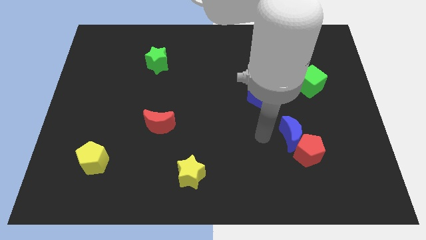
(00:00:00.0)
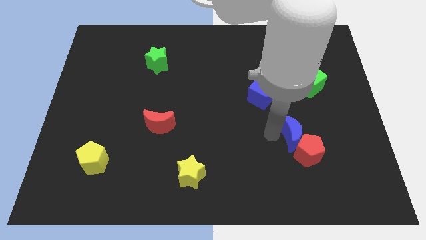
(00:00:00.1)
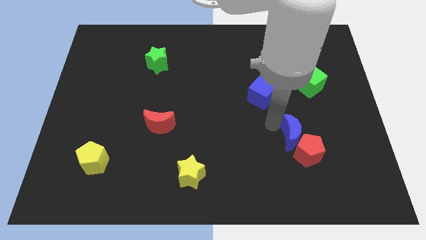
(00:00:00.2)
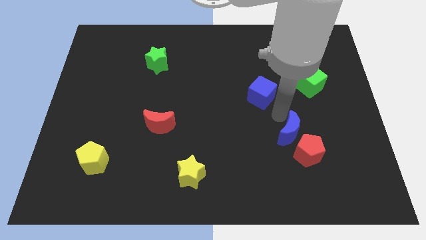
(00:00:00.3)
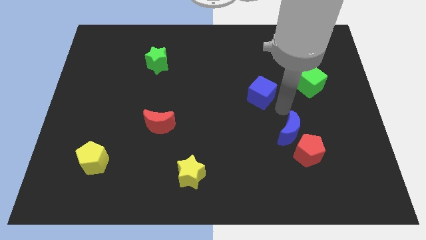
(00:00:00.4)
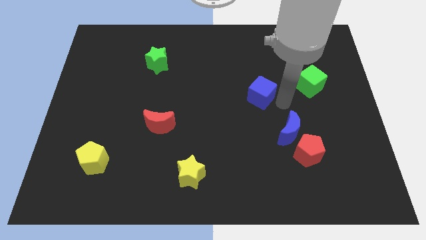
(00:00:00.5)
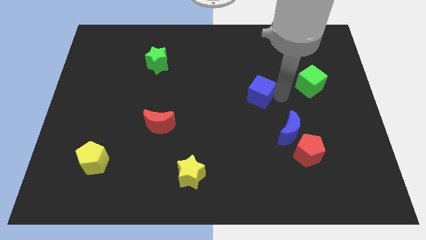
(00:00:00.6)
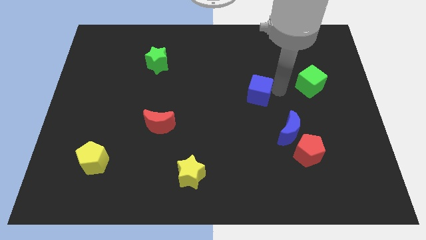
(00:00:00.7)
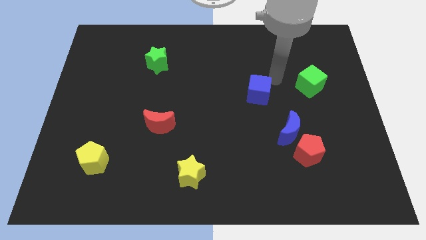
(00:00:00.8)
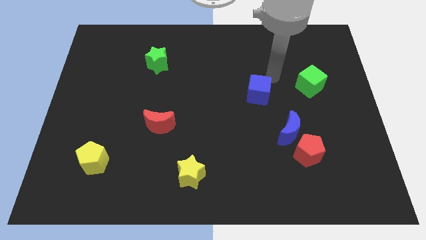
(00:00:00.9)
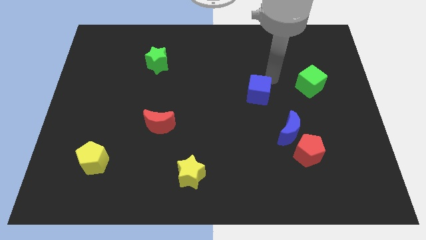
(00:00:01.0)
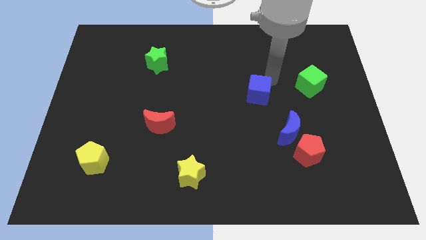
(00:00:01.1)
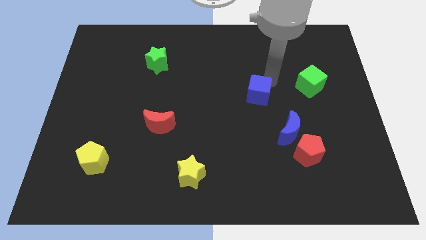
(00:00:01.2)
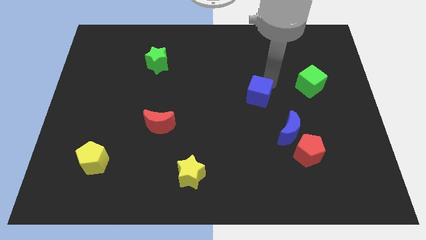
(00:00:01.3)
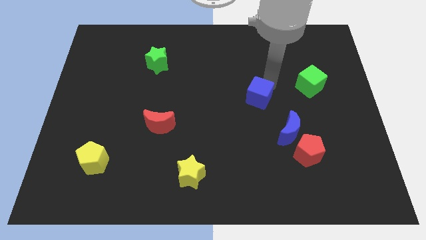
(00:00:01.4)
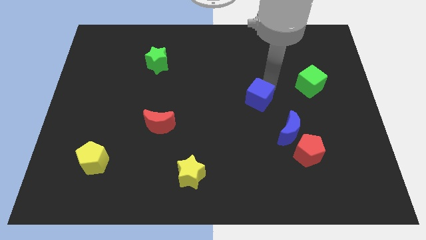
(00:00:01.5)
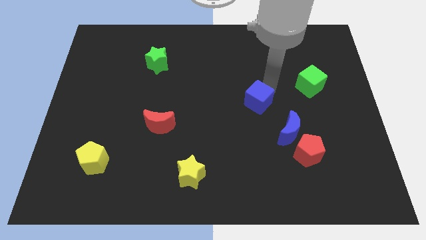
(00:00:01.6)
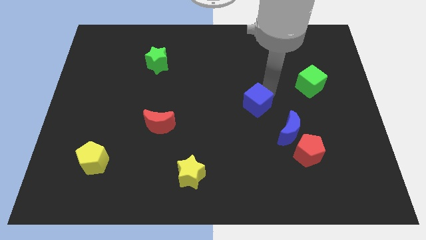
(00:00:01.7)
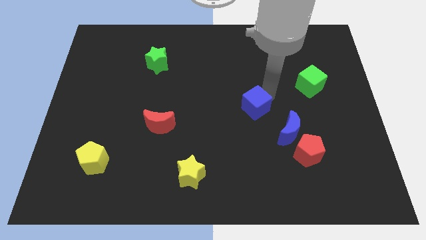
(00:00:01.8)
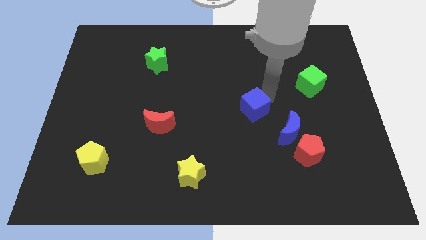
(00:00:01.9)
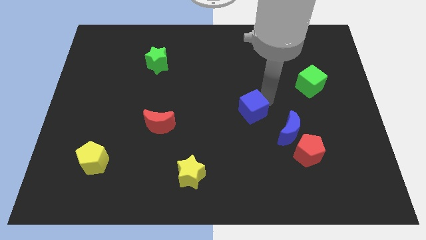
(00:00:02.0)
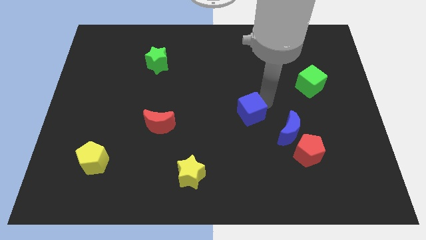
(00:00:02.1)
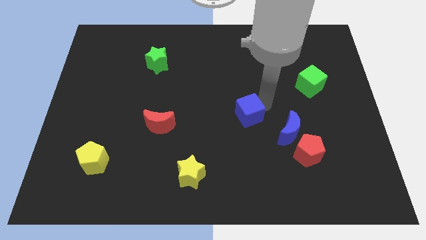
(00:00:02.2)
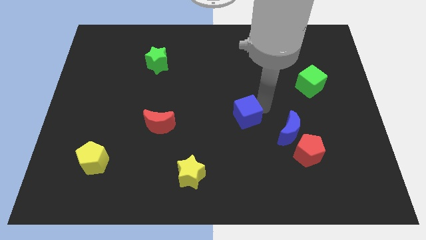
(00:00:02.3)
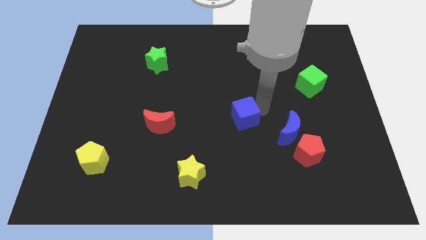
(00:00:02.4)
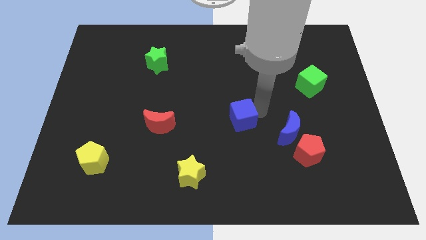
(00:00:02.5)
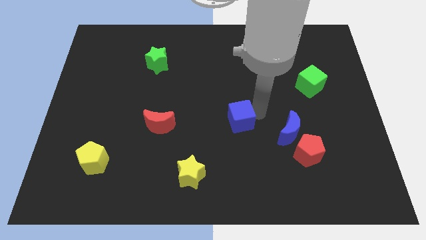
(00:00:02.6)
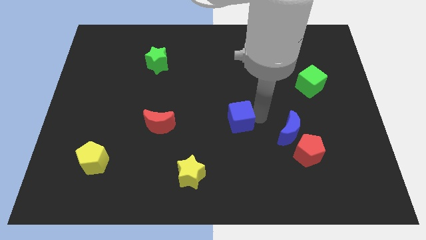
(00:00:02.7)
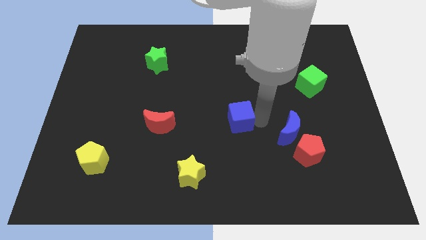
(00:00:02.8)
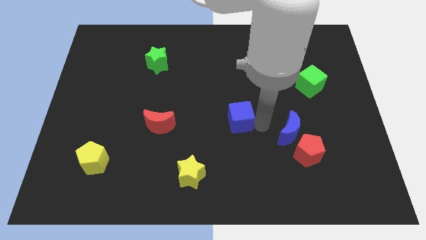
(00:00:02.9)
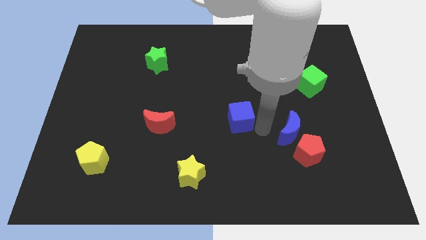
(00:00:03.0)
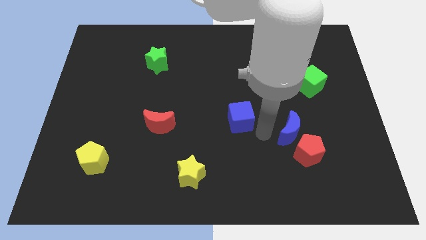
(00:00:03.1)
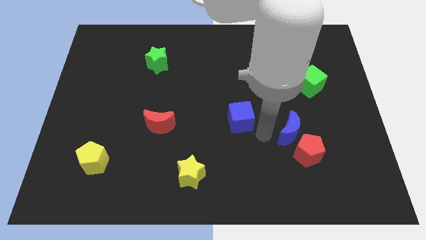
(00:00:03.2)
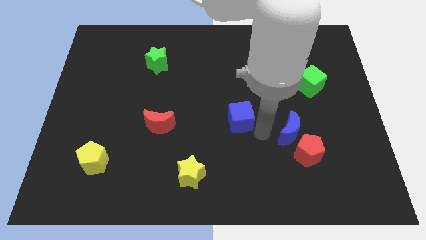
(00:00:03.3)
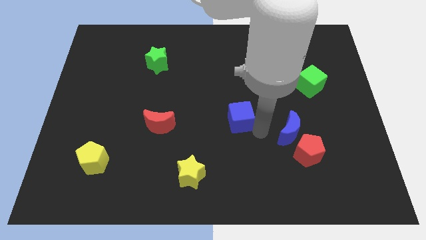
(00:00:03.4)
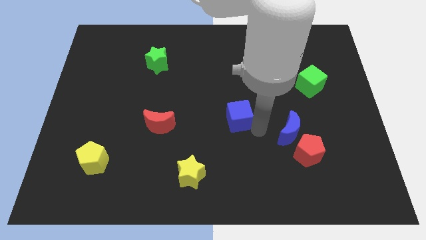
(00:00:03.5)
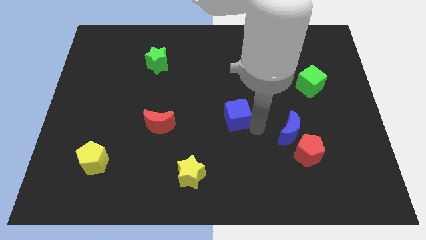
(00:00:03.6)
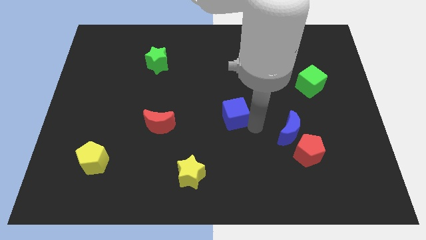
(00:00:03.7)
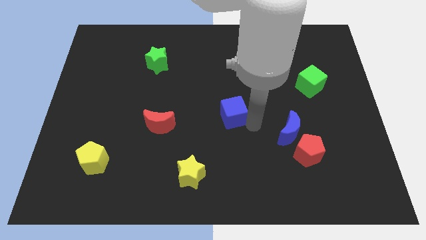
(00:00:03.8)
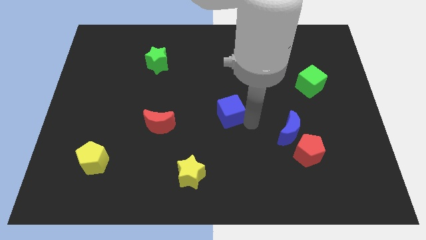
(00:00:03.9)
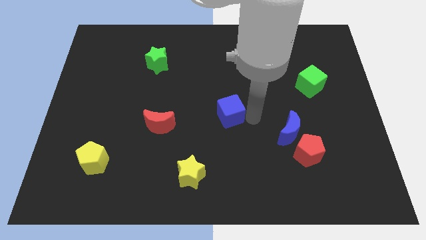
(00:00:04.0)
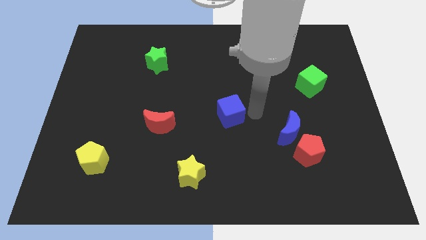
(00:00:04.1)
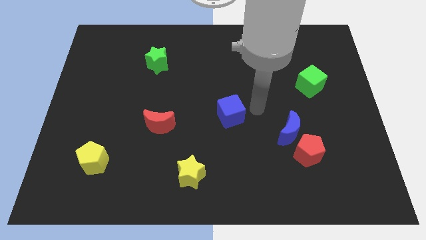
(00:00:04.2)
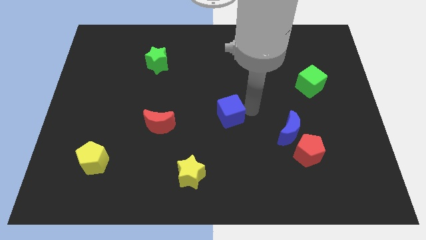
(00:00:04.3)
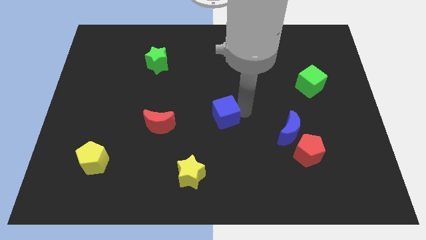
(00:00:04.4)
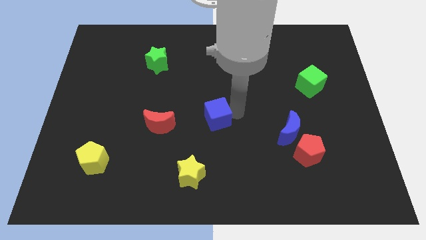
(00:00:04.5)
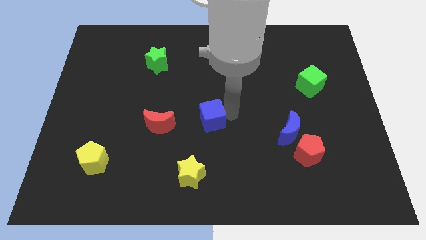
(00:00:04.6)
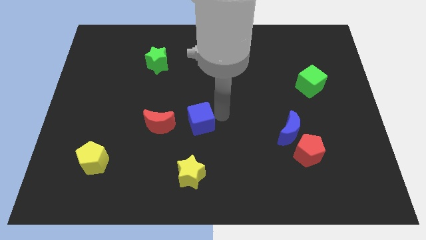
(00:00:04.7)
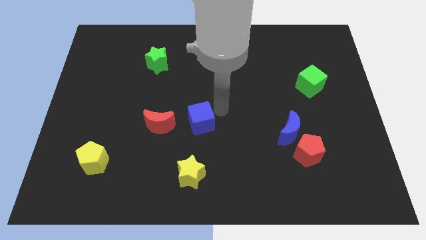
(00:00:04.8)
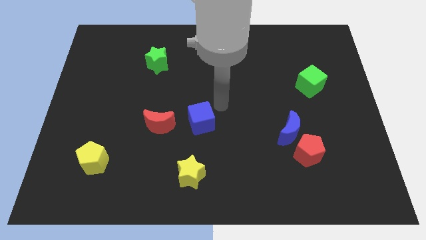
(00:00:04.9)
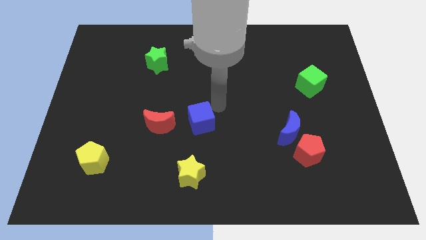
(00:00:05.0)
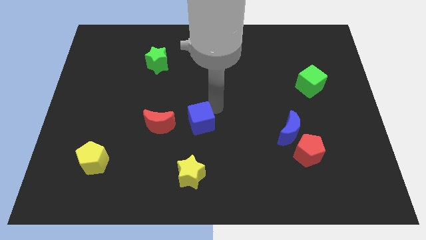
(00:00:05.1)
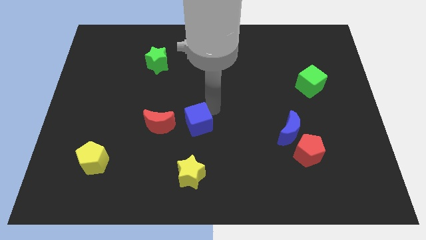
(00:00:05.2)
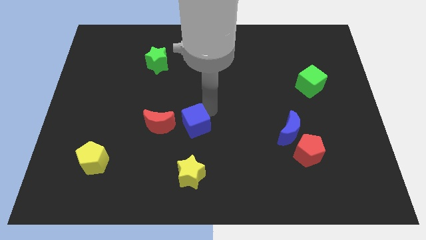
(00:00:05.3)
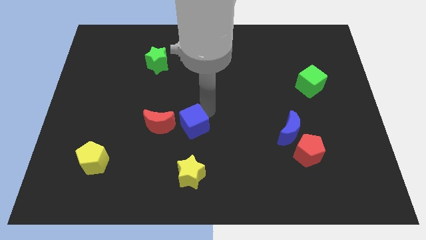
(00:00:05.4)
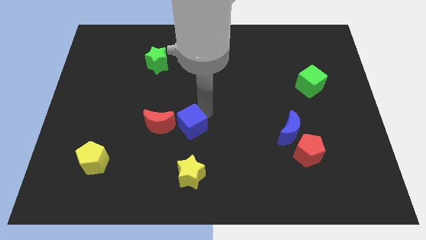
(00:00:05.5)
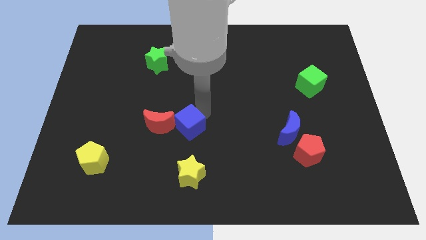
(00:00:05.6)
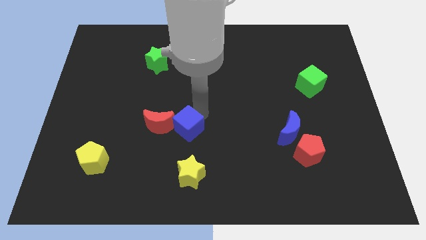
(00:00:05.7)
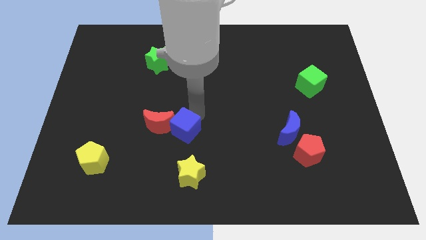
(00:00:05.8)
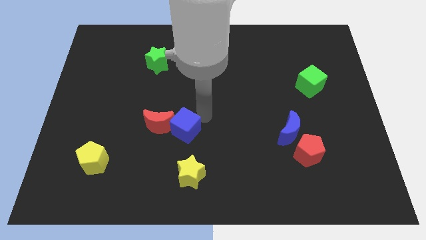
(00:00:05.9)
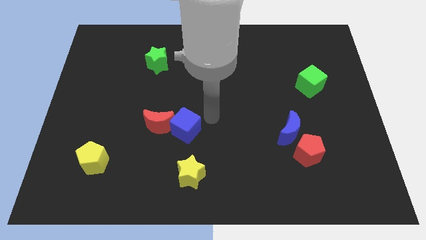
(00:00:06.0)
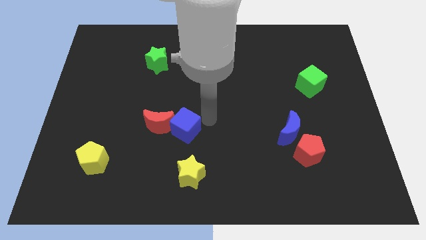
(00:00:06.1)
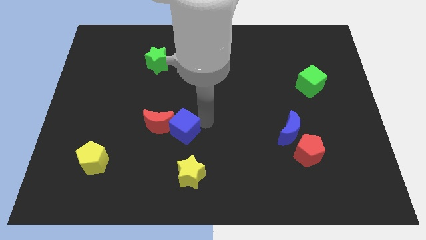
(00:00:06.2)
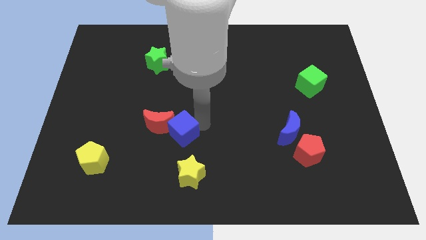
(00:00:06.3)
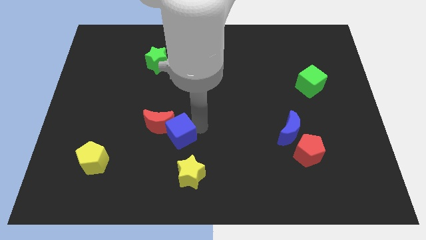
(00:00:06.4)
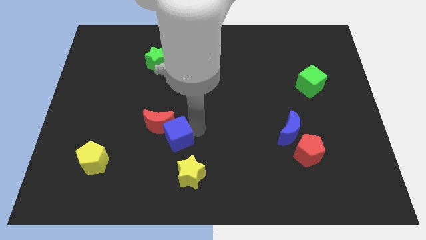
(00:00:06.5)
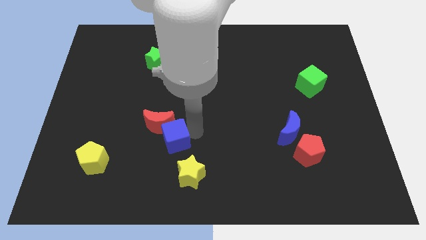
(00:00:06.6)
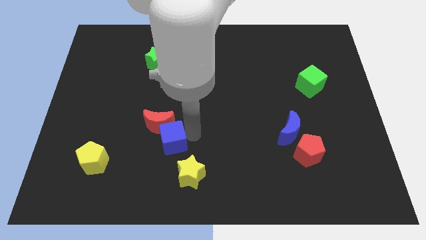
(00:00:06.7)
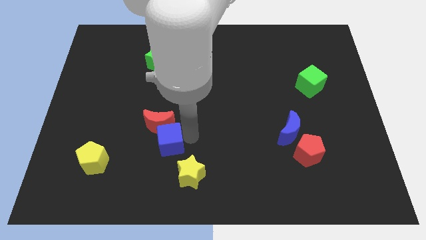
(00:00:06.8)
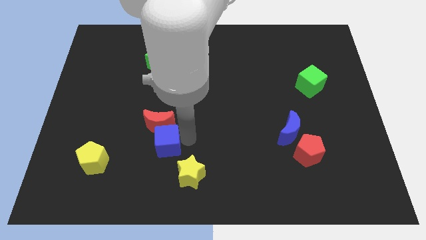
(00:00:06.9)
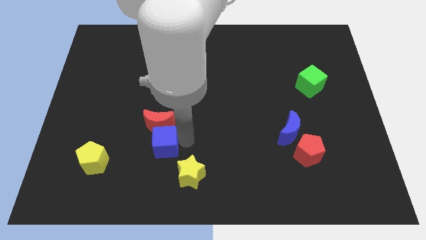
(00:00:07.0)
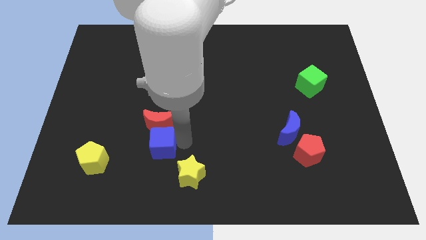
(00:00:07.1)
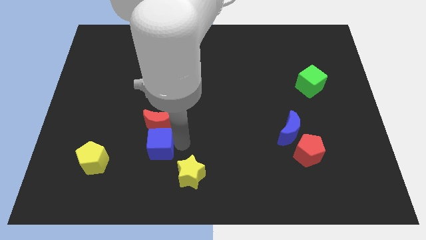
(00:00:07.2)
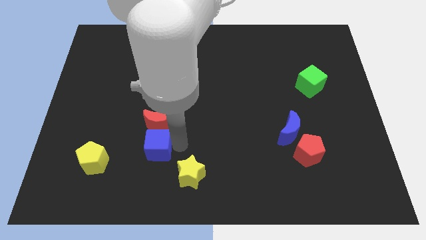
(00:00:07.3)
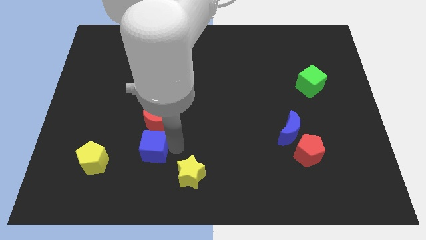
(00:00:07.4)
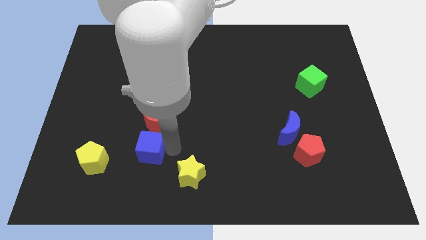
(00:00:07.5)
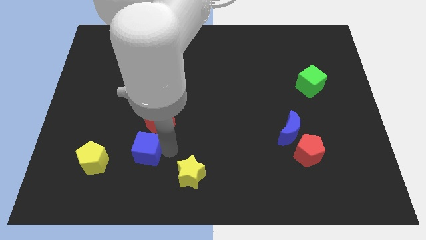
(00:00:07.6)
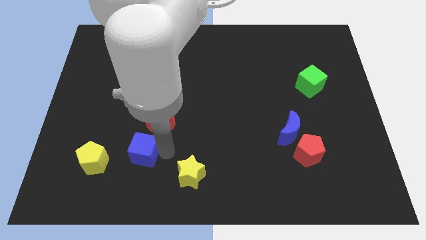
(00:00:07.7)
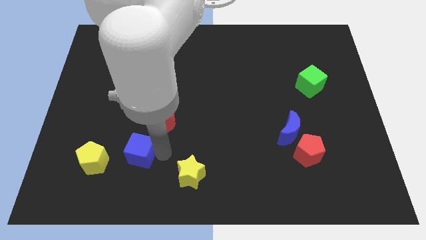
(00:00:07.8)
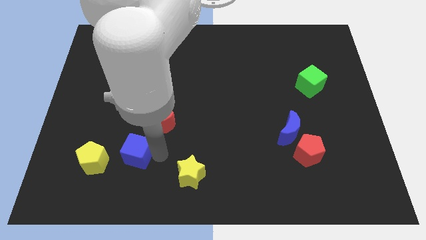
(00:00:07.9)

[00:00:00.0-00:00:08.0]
slide the blue cube to the top right side of the yellow pentagon
